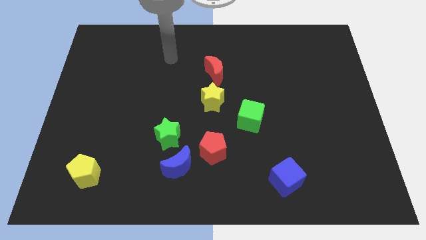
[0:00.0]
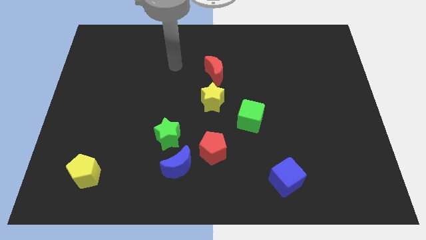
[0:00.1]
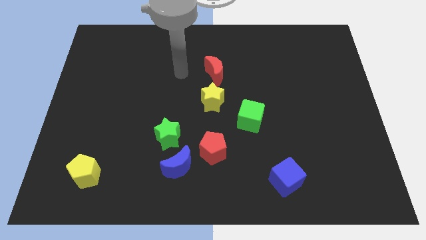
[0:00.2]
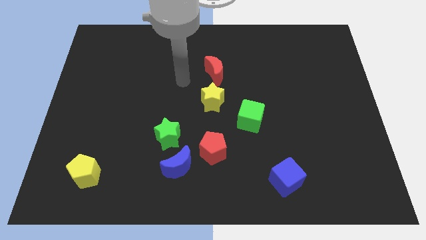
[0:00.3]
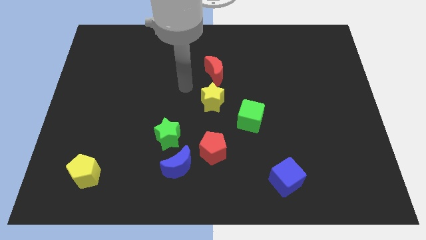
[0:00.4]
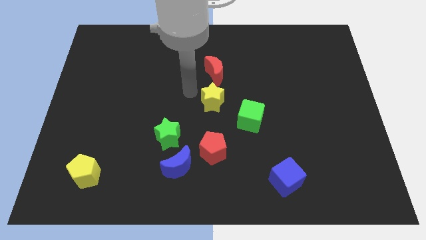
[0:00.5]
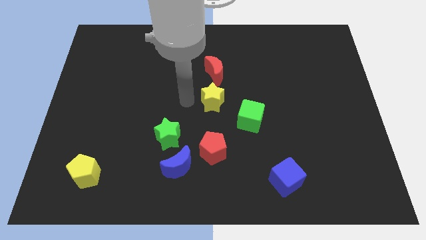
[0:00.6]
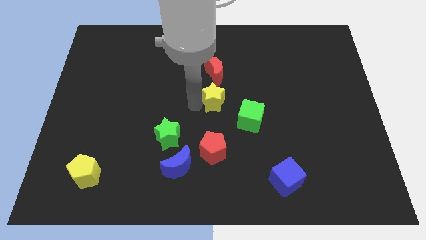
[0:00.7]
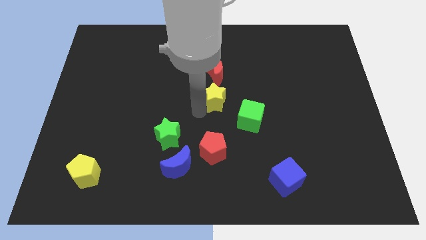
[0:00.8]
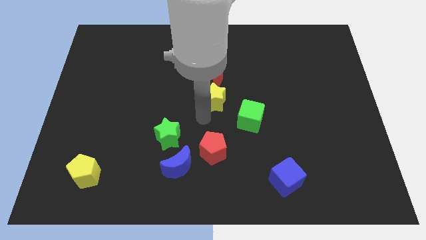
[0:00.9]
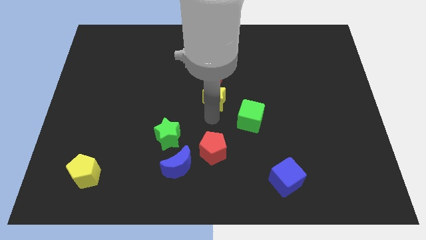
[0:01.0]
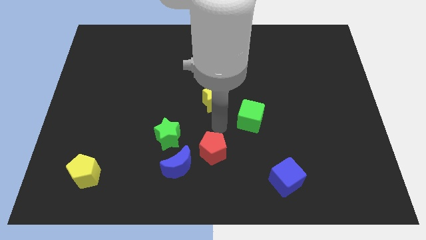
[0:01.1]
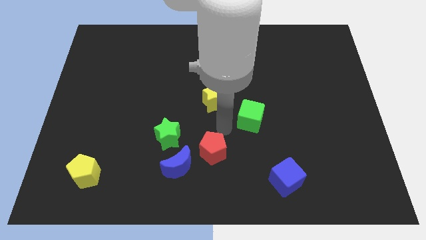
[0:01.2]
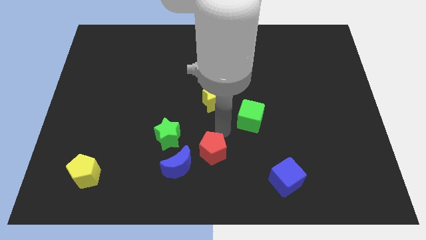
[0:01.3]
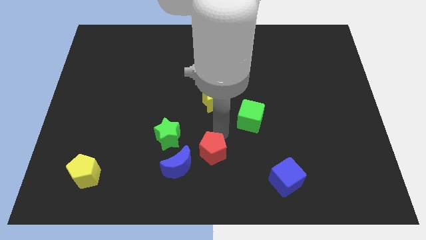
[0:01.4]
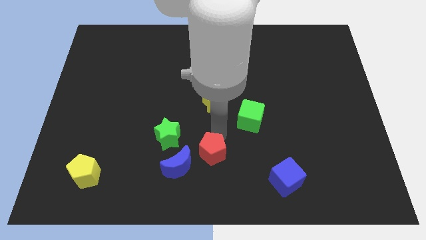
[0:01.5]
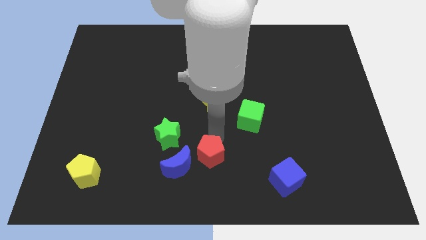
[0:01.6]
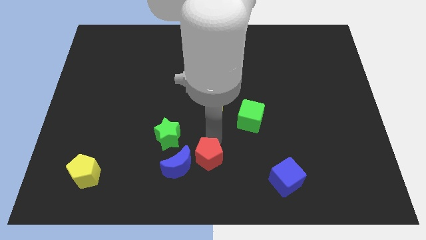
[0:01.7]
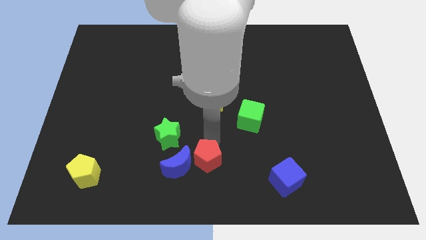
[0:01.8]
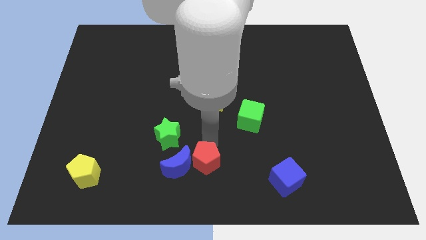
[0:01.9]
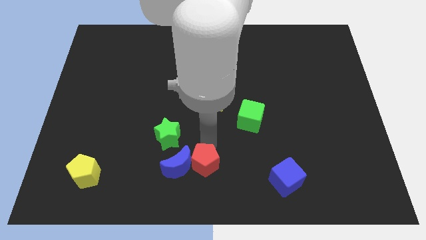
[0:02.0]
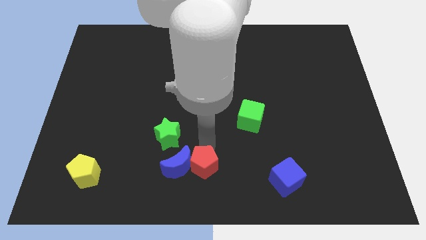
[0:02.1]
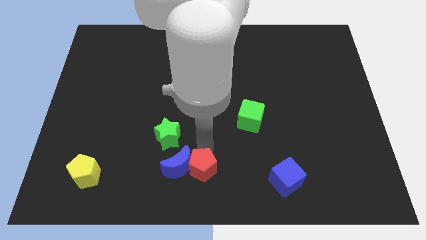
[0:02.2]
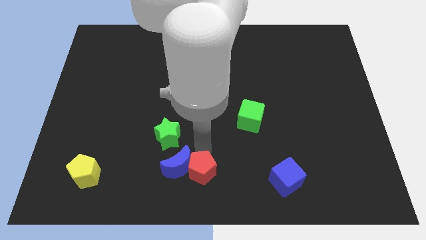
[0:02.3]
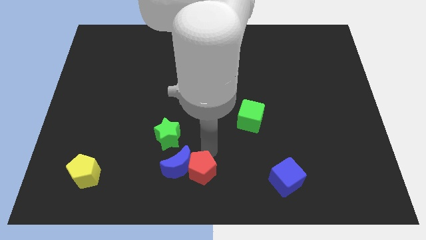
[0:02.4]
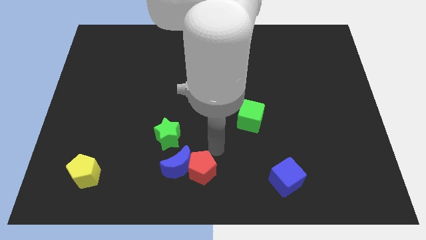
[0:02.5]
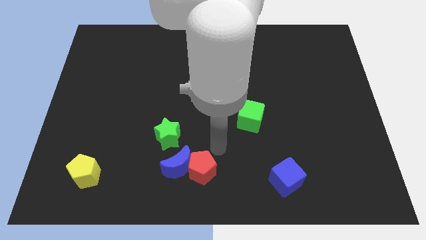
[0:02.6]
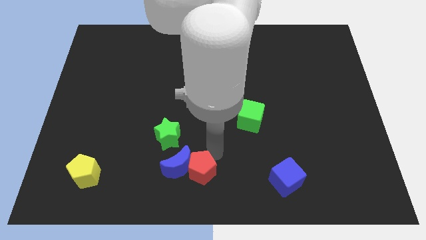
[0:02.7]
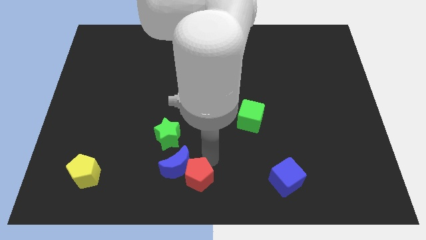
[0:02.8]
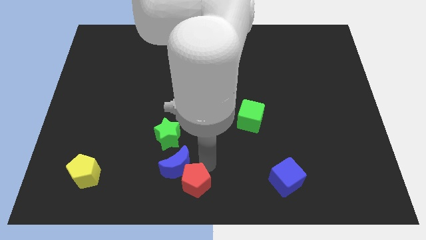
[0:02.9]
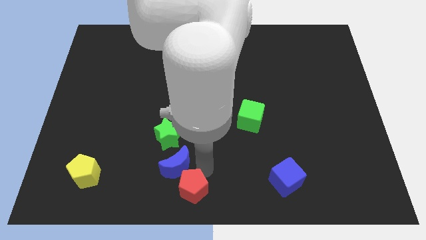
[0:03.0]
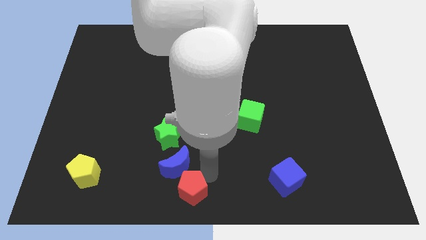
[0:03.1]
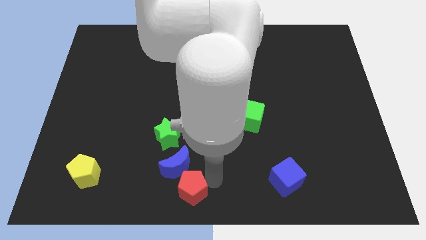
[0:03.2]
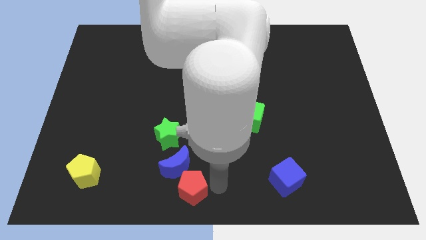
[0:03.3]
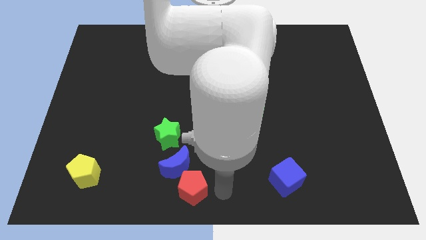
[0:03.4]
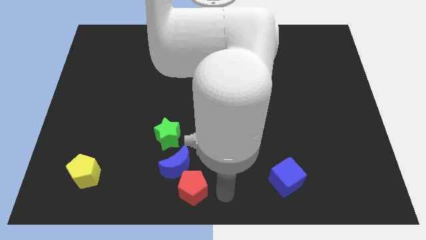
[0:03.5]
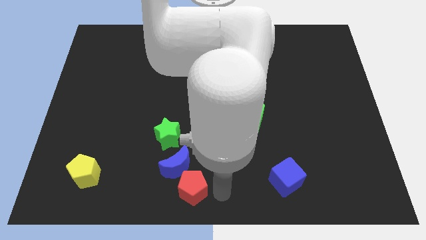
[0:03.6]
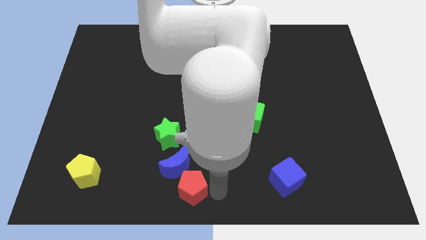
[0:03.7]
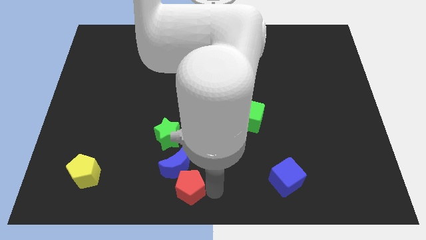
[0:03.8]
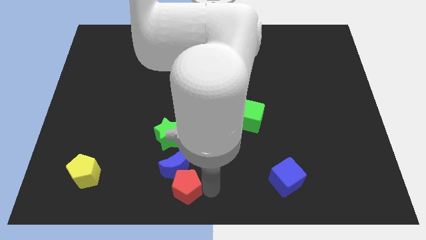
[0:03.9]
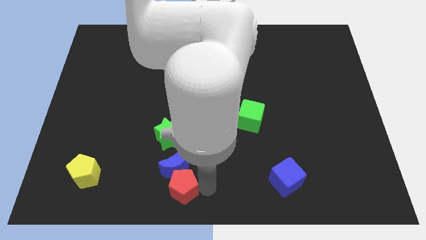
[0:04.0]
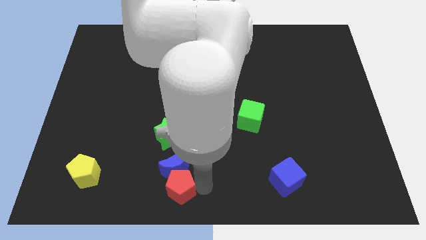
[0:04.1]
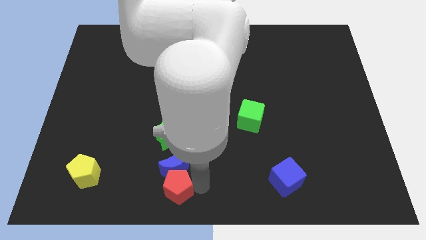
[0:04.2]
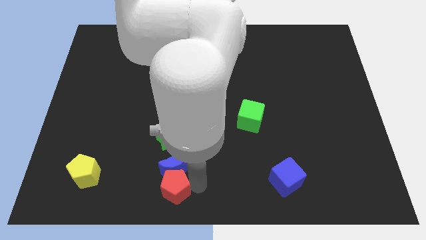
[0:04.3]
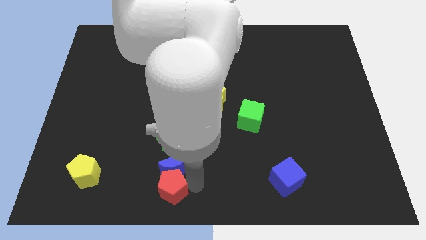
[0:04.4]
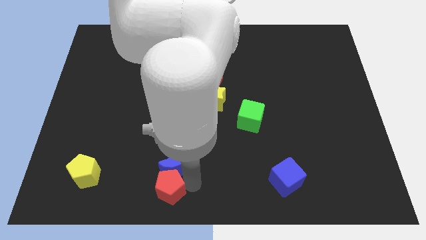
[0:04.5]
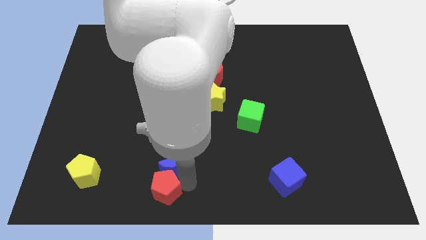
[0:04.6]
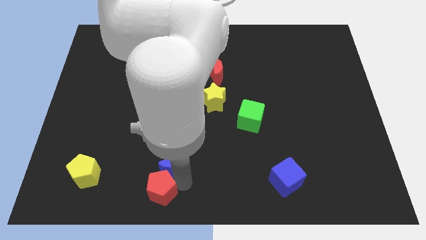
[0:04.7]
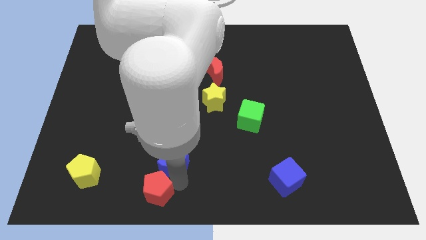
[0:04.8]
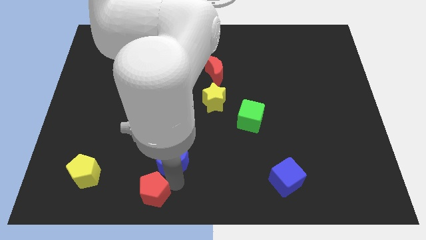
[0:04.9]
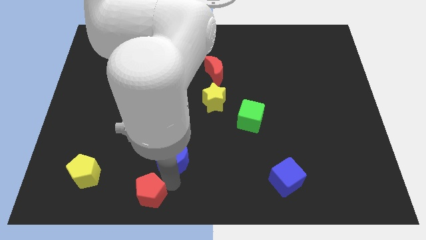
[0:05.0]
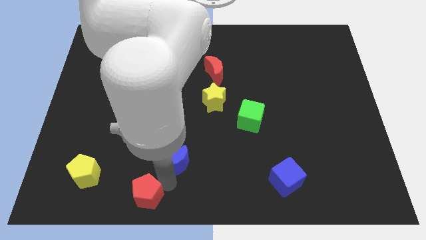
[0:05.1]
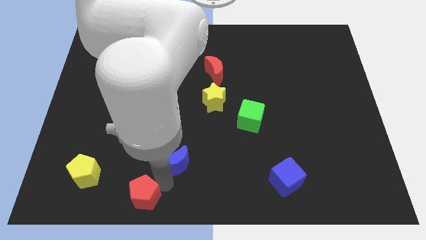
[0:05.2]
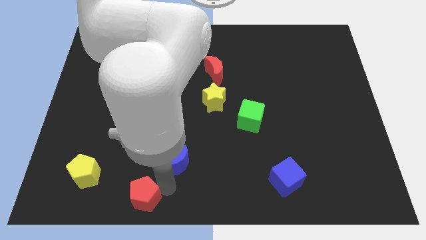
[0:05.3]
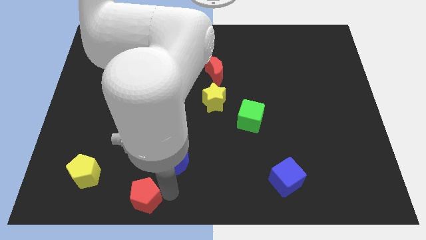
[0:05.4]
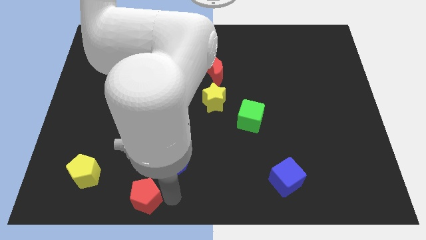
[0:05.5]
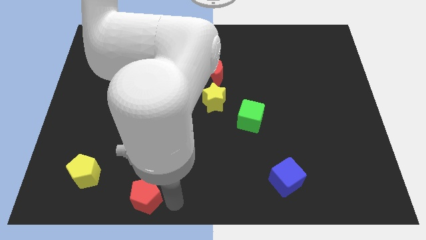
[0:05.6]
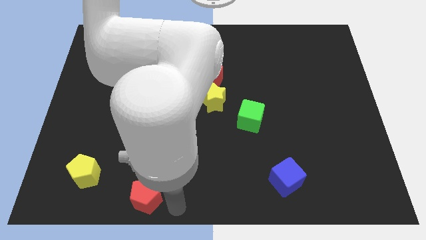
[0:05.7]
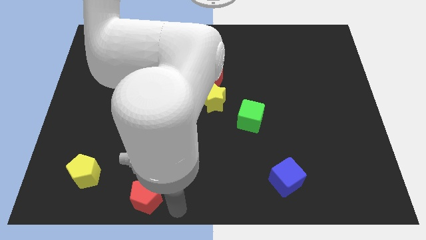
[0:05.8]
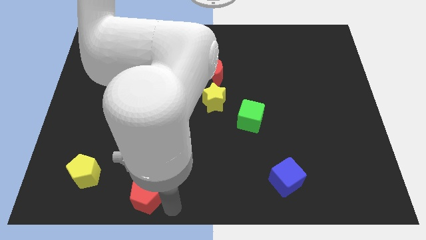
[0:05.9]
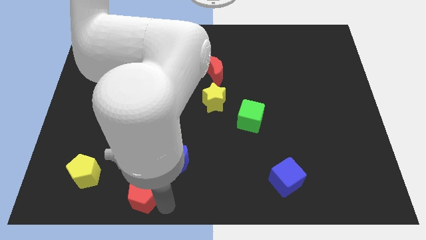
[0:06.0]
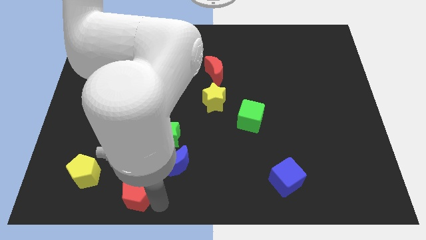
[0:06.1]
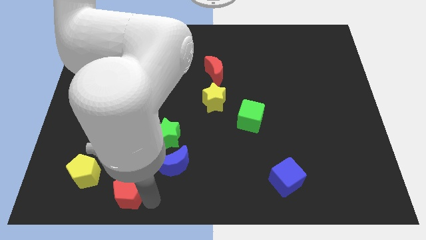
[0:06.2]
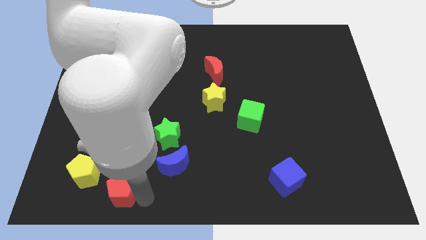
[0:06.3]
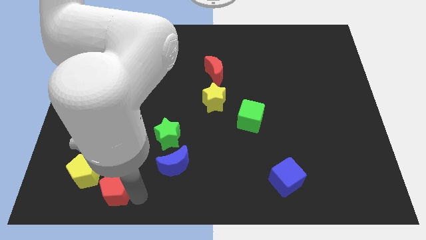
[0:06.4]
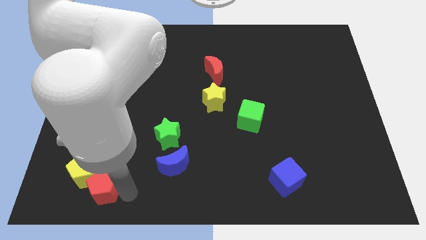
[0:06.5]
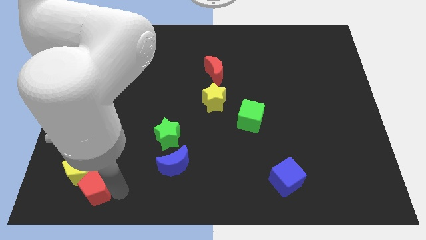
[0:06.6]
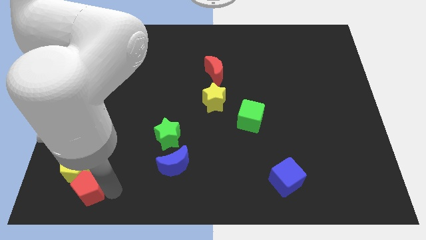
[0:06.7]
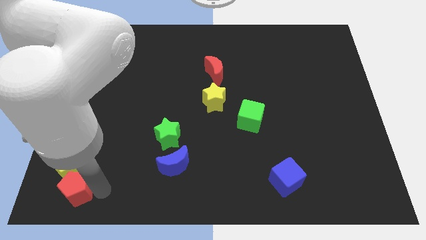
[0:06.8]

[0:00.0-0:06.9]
push the red pentagon to the lower left corner
